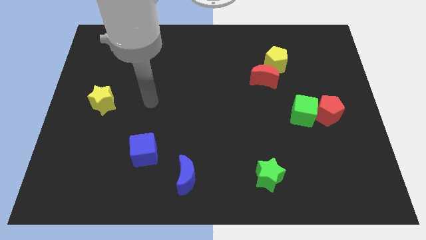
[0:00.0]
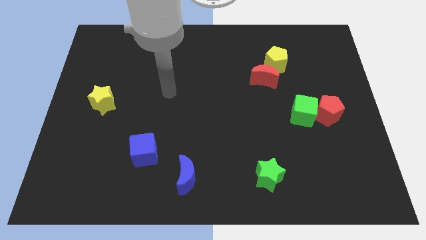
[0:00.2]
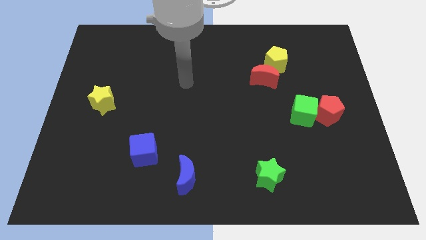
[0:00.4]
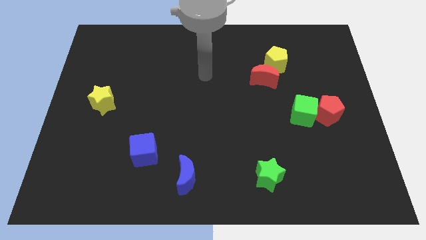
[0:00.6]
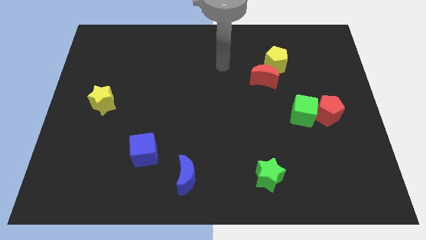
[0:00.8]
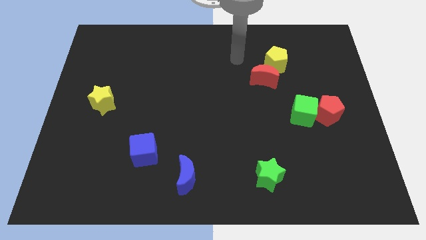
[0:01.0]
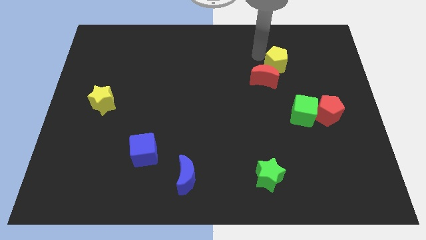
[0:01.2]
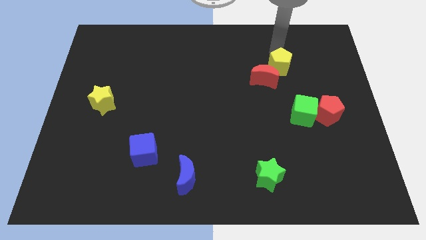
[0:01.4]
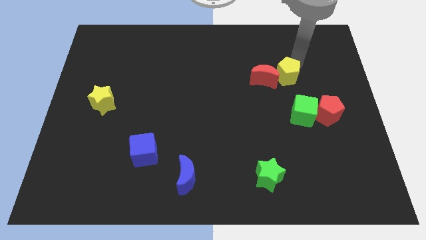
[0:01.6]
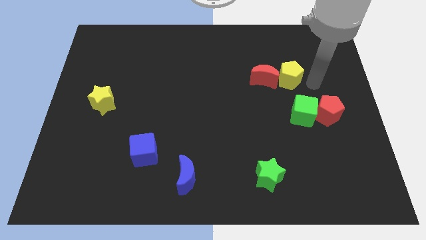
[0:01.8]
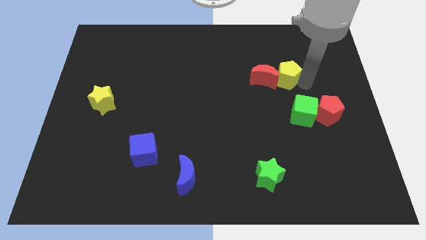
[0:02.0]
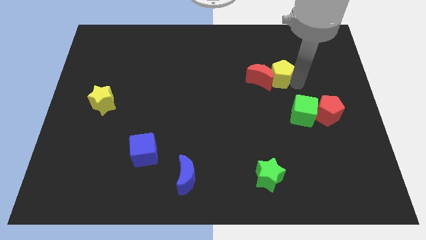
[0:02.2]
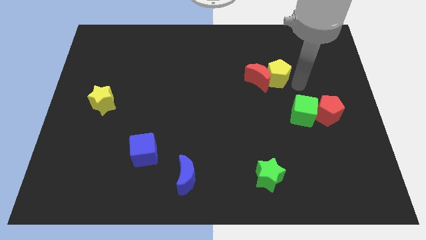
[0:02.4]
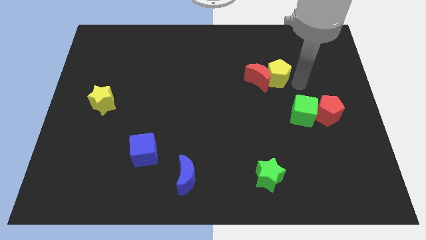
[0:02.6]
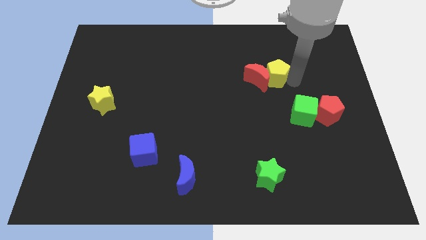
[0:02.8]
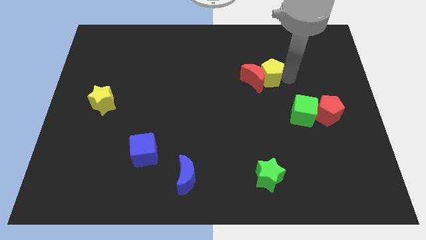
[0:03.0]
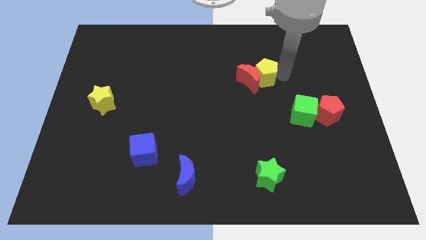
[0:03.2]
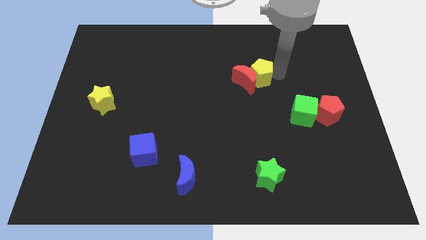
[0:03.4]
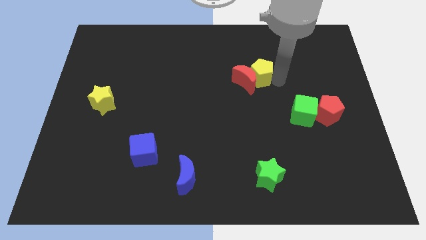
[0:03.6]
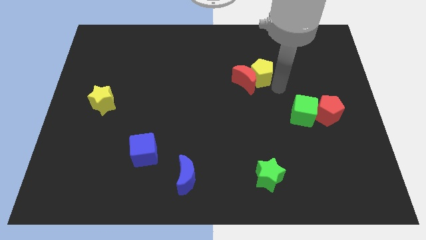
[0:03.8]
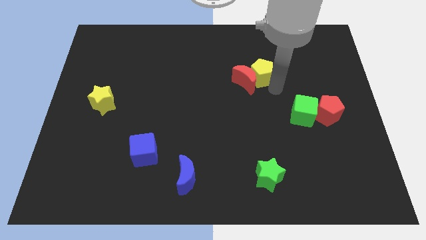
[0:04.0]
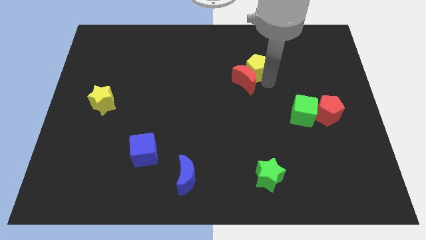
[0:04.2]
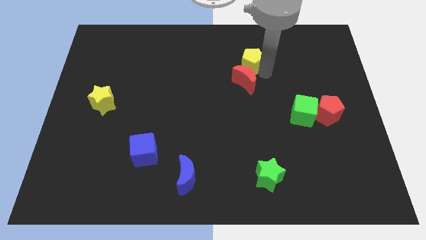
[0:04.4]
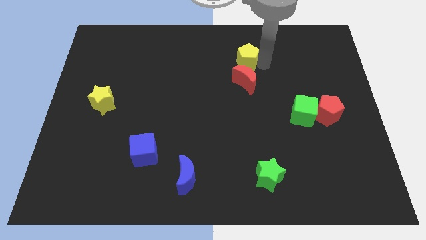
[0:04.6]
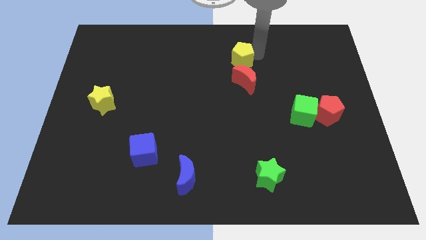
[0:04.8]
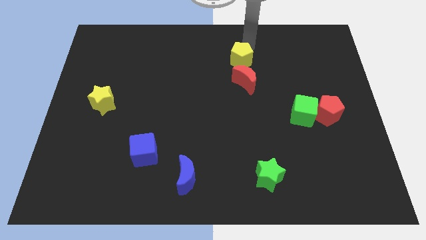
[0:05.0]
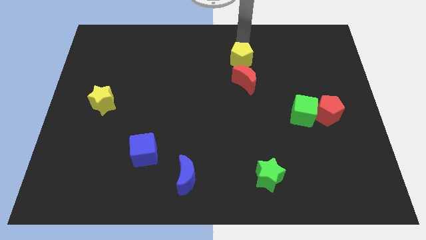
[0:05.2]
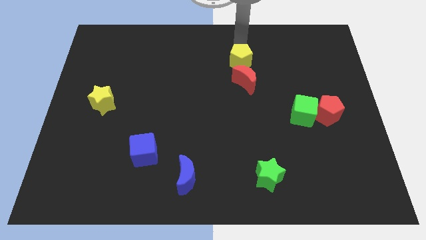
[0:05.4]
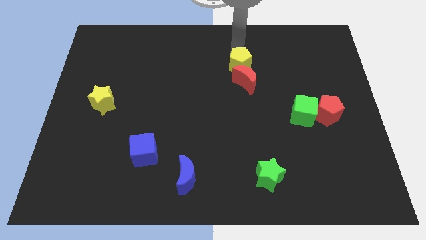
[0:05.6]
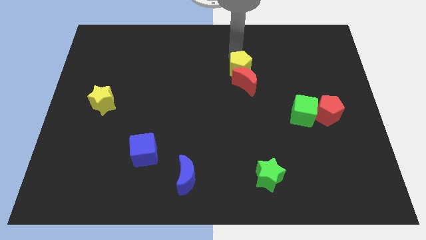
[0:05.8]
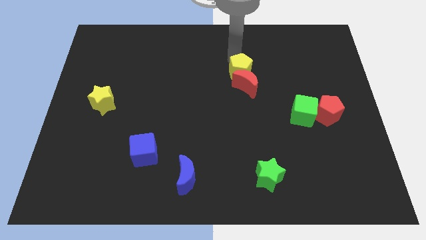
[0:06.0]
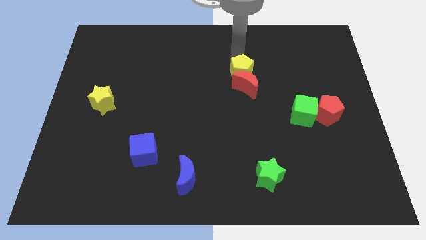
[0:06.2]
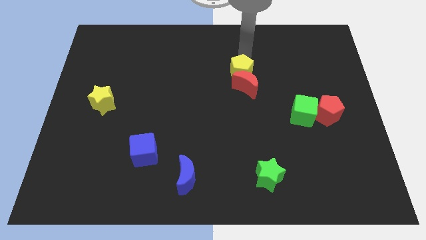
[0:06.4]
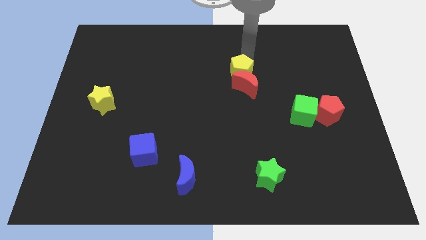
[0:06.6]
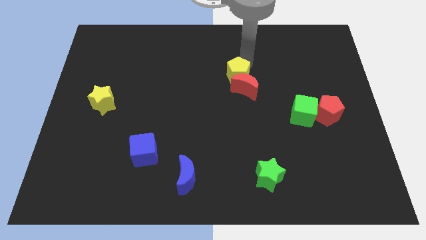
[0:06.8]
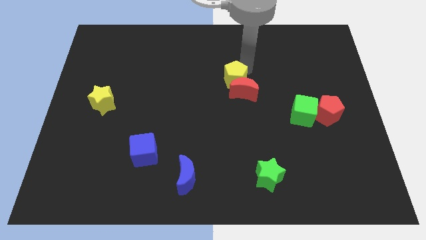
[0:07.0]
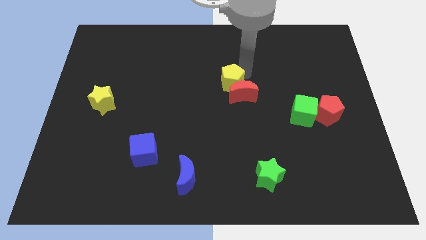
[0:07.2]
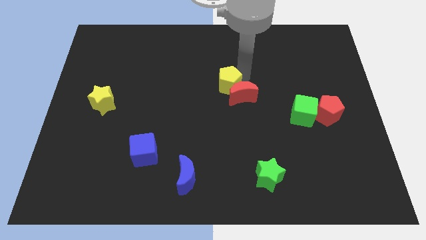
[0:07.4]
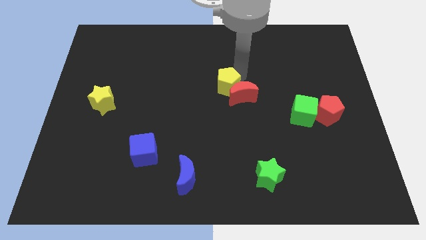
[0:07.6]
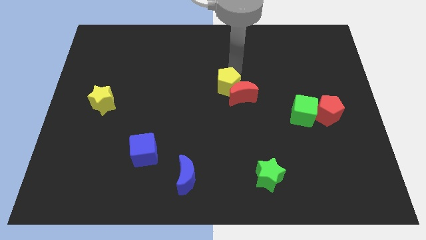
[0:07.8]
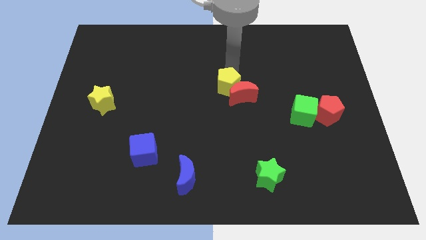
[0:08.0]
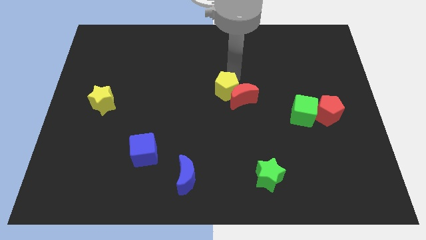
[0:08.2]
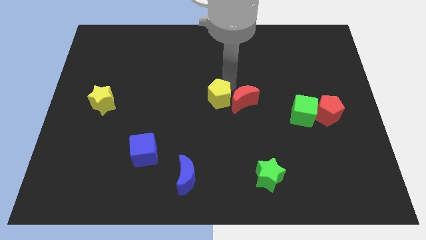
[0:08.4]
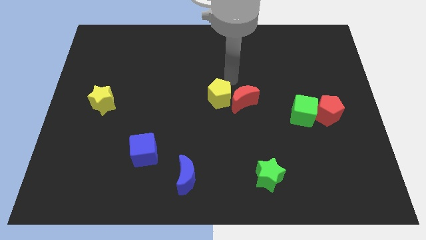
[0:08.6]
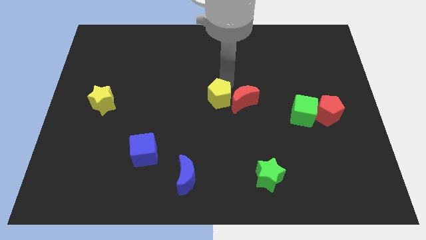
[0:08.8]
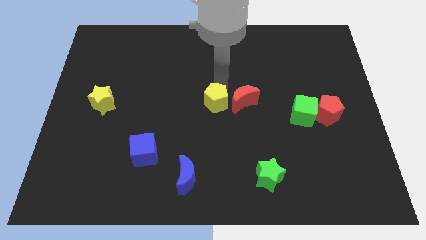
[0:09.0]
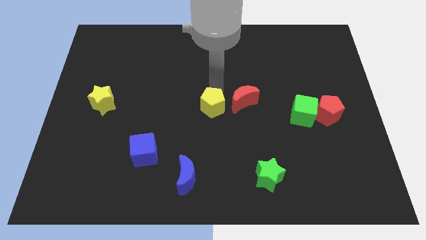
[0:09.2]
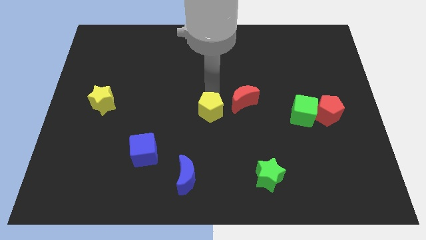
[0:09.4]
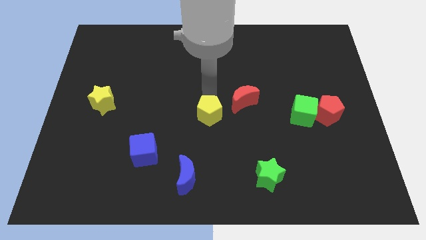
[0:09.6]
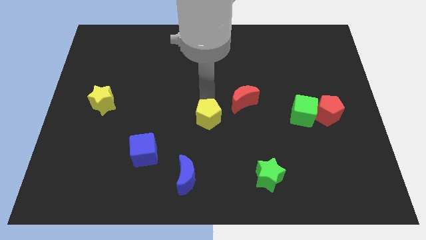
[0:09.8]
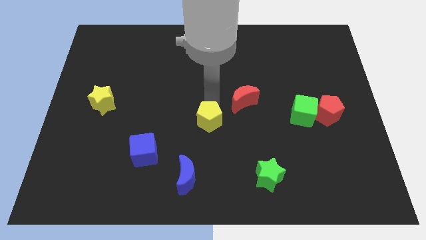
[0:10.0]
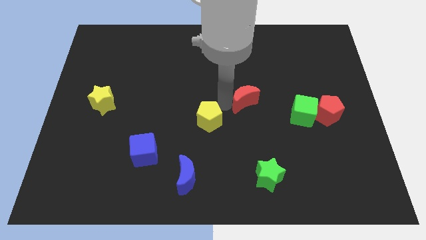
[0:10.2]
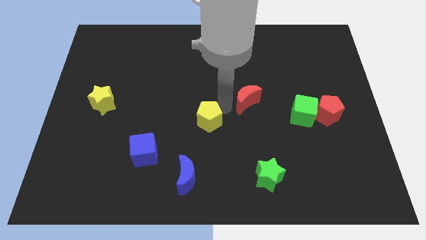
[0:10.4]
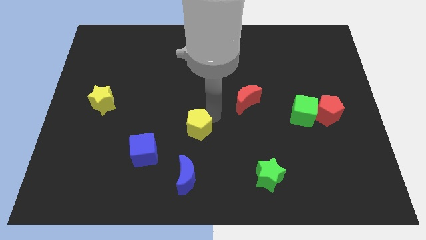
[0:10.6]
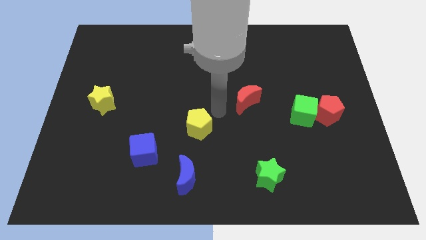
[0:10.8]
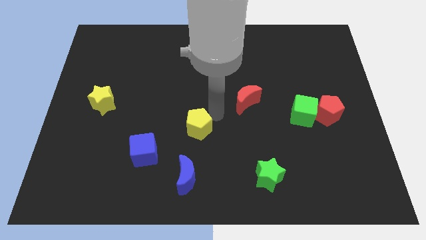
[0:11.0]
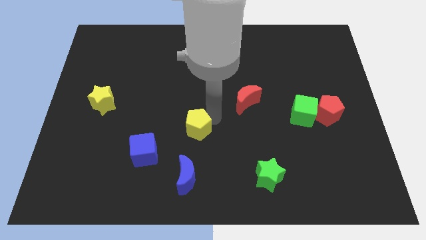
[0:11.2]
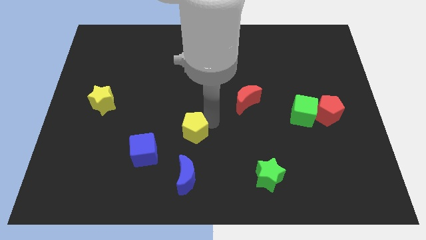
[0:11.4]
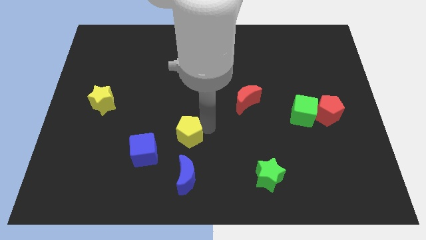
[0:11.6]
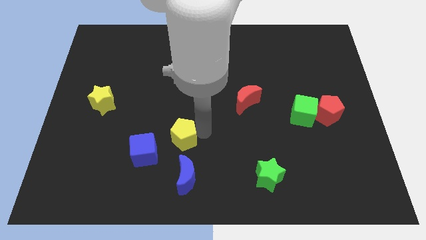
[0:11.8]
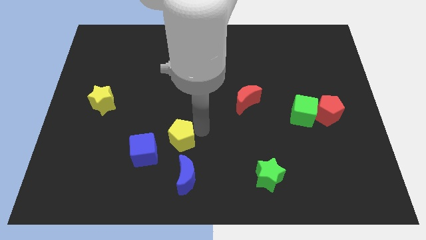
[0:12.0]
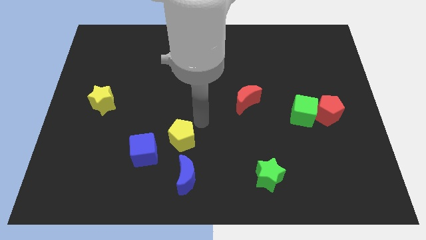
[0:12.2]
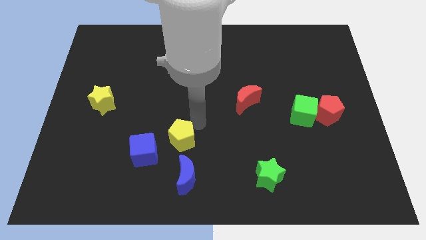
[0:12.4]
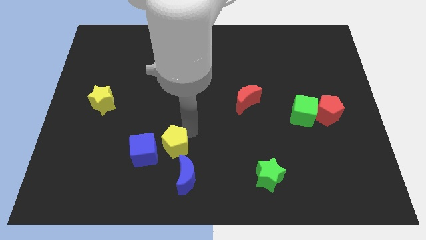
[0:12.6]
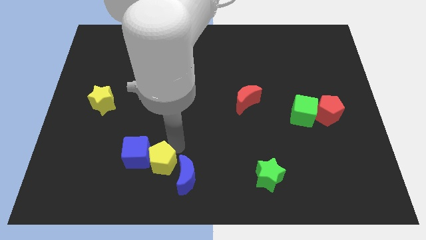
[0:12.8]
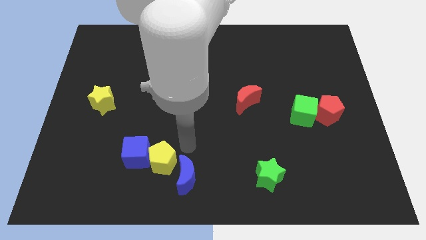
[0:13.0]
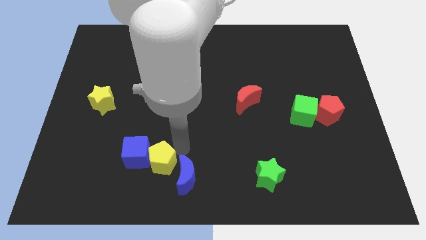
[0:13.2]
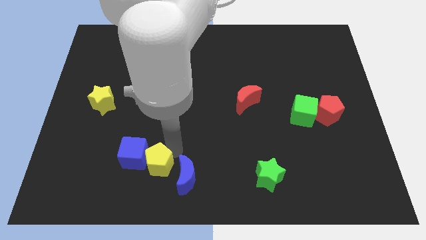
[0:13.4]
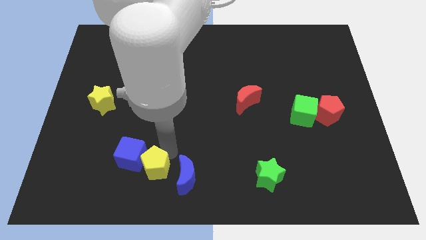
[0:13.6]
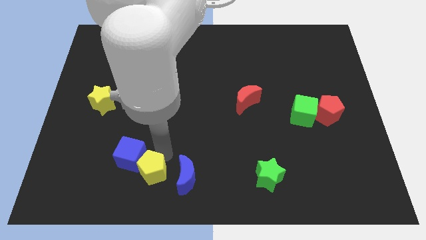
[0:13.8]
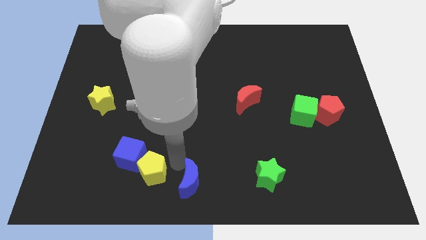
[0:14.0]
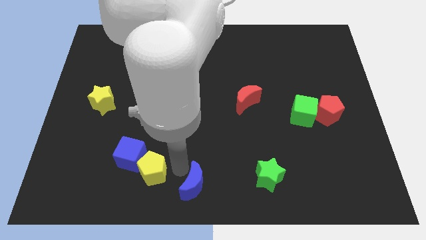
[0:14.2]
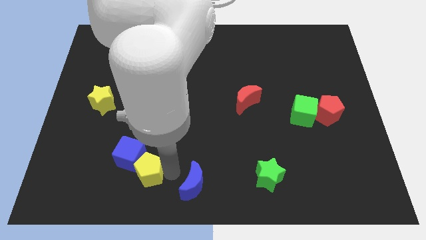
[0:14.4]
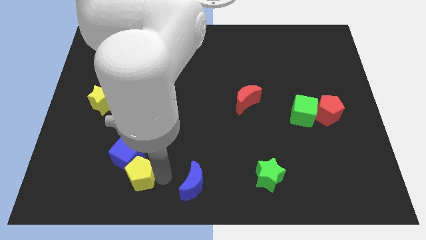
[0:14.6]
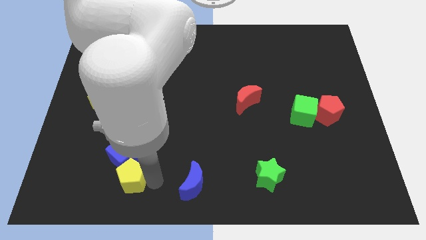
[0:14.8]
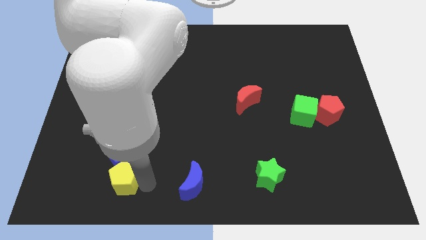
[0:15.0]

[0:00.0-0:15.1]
slide the yellow pentagon diagonally down and to the left of the blue cube
